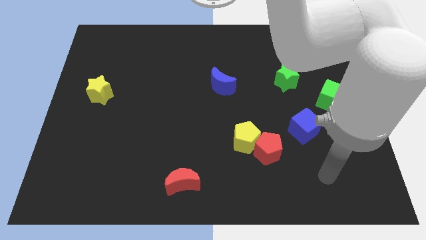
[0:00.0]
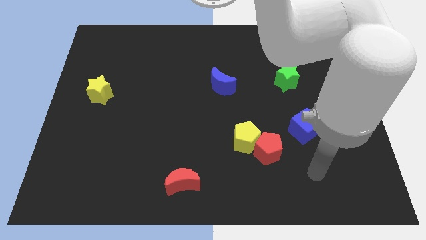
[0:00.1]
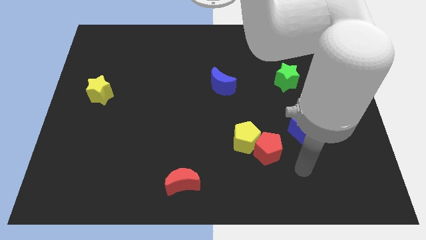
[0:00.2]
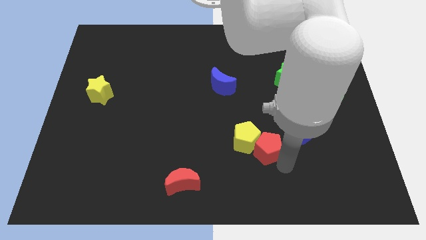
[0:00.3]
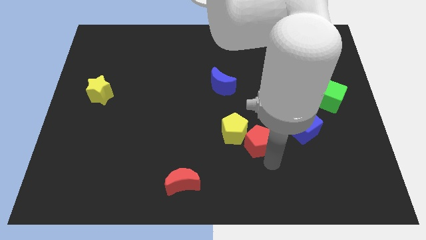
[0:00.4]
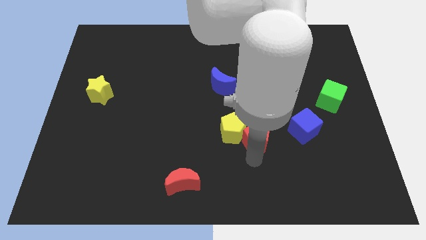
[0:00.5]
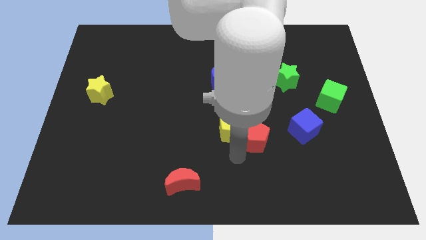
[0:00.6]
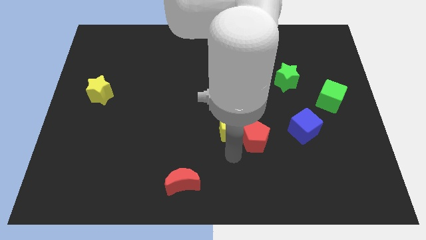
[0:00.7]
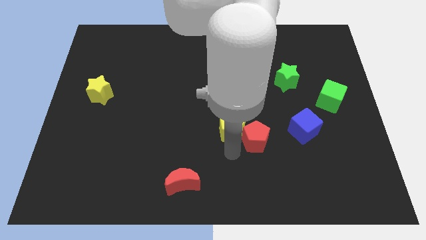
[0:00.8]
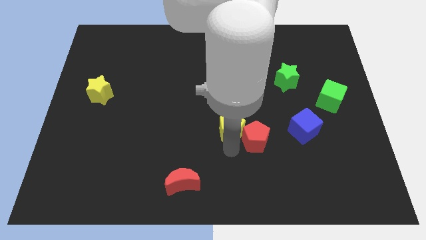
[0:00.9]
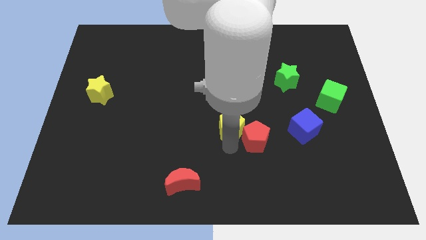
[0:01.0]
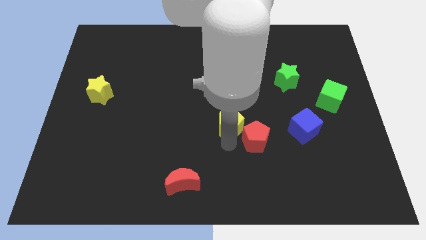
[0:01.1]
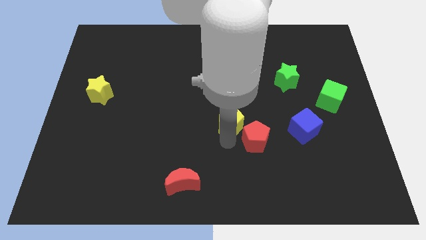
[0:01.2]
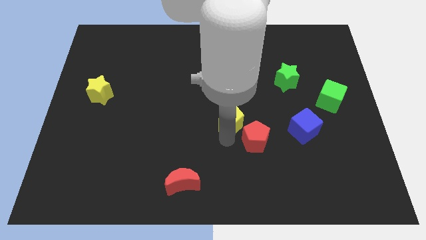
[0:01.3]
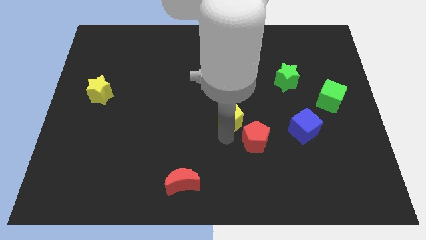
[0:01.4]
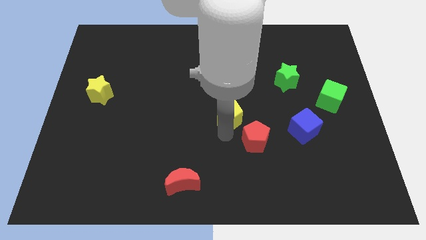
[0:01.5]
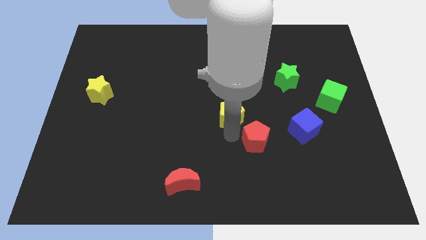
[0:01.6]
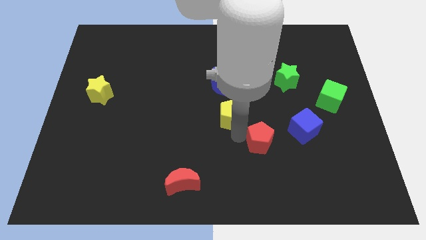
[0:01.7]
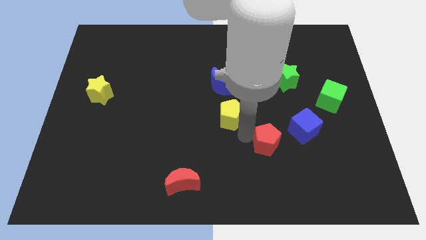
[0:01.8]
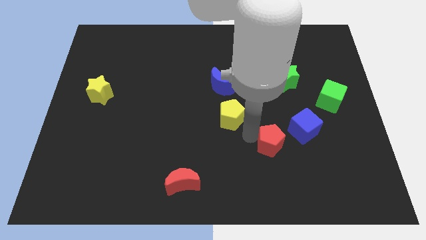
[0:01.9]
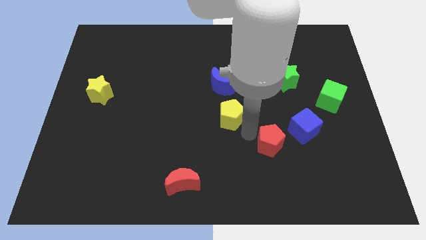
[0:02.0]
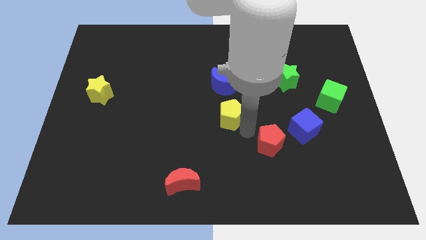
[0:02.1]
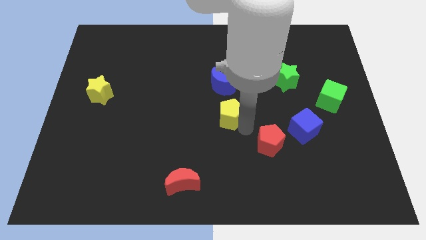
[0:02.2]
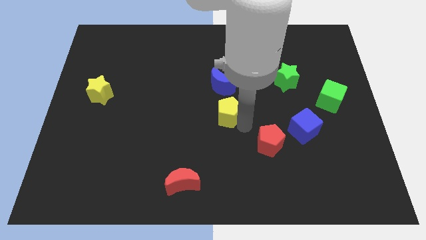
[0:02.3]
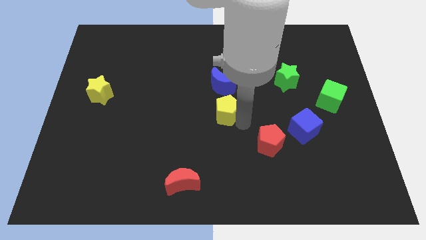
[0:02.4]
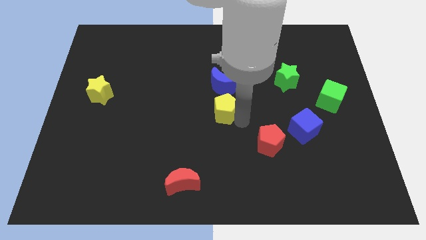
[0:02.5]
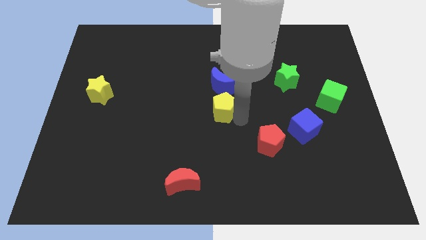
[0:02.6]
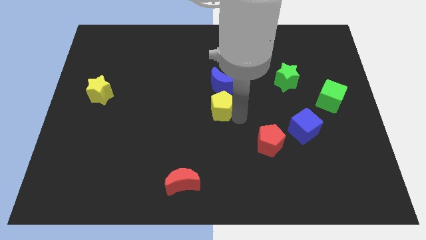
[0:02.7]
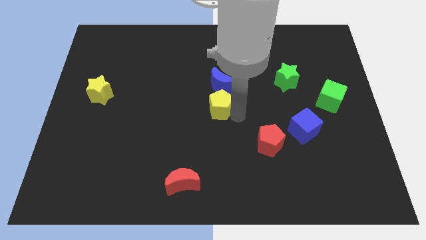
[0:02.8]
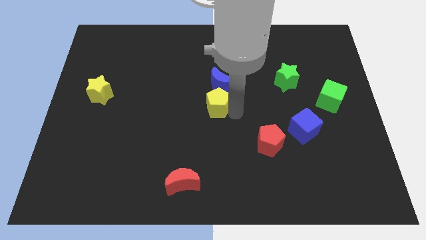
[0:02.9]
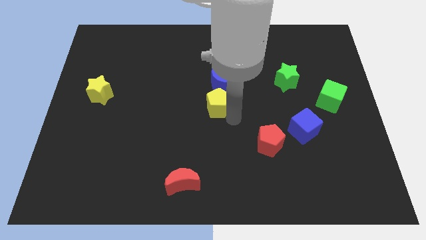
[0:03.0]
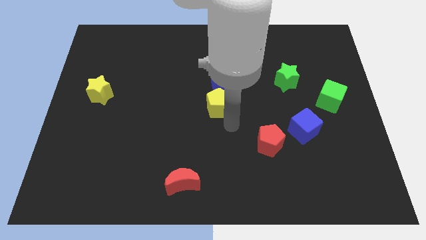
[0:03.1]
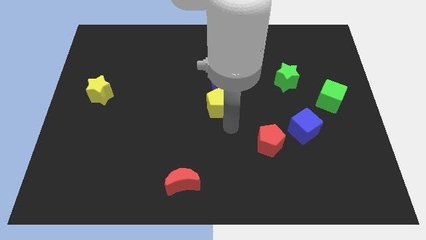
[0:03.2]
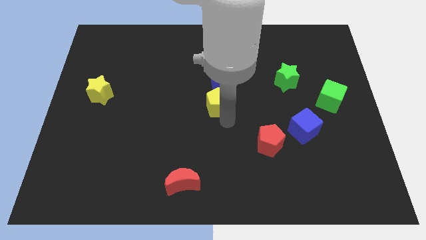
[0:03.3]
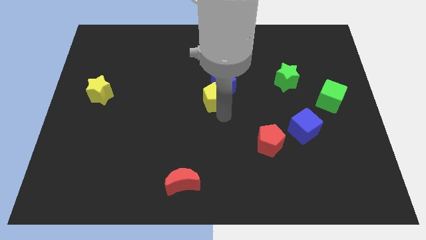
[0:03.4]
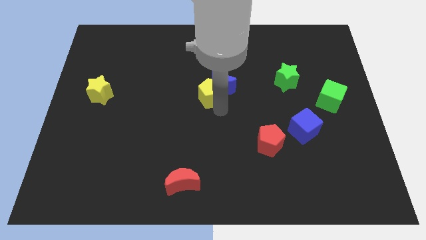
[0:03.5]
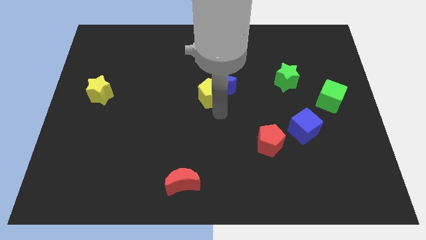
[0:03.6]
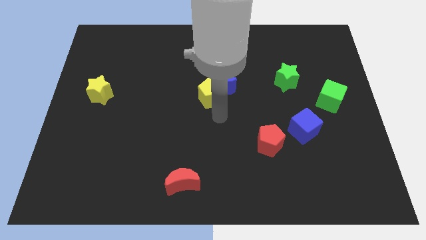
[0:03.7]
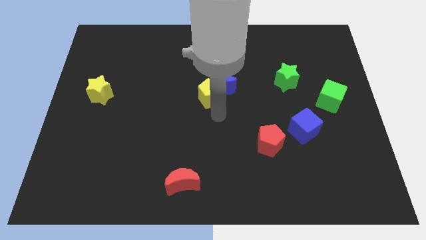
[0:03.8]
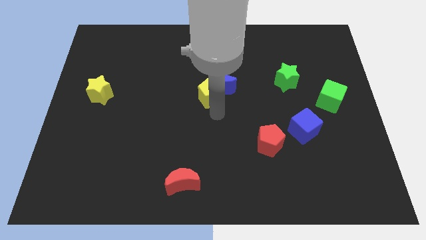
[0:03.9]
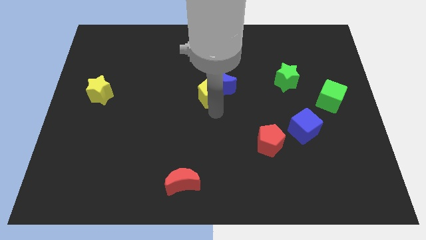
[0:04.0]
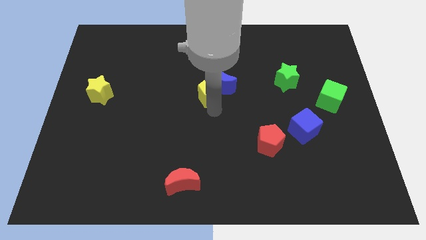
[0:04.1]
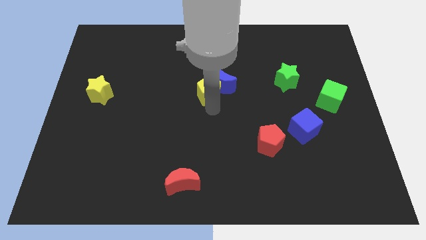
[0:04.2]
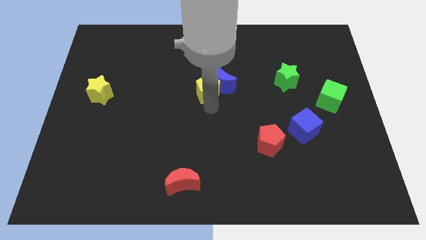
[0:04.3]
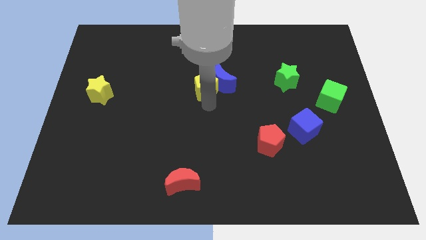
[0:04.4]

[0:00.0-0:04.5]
push the yellow pentagon to the top left of the blue moon

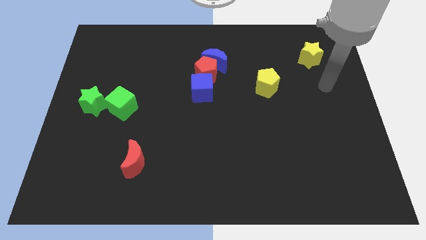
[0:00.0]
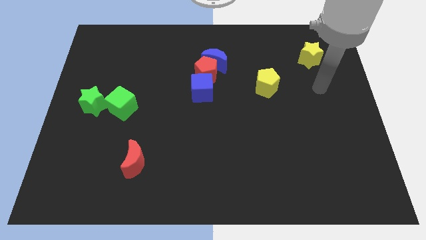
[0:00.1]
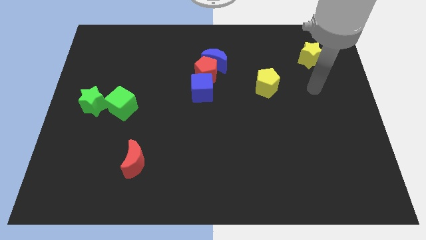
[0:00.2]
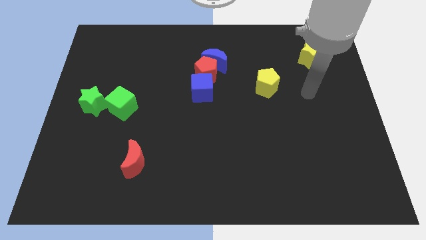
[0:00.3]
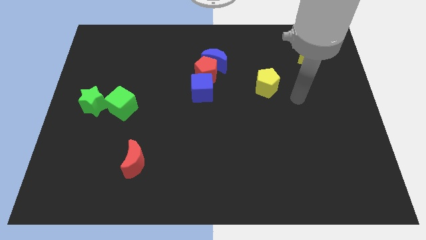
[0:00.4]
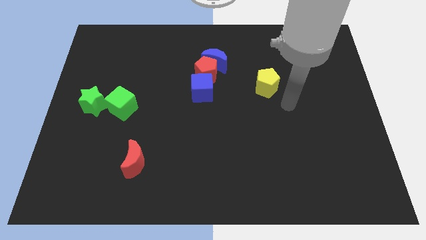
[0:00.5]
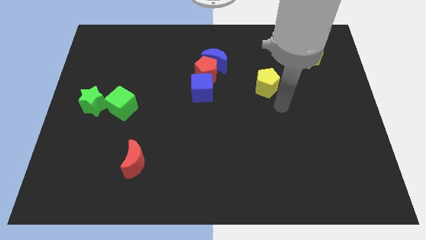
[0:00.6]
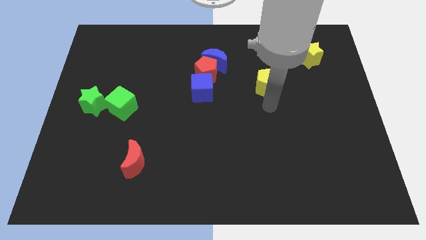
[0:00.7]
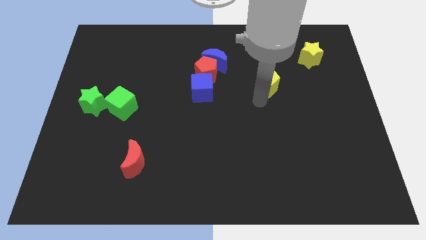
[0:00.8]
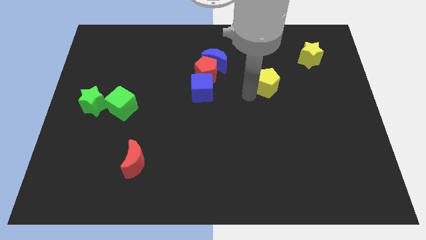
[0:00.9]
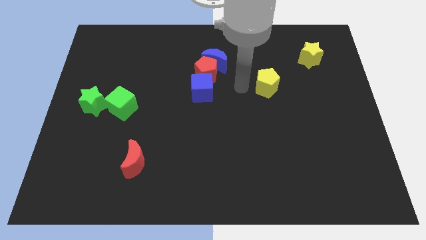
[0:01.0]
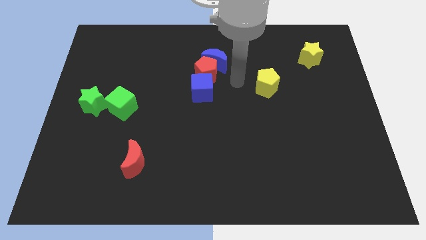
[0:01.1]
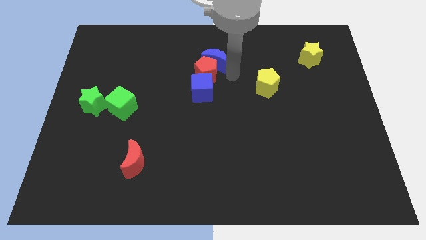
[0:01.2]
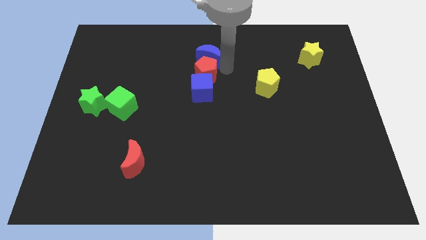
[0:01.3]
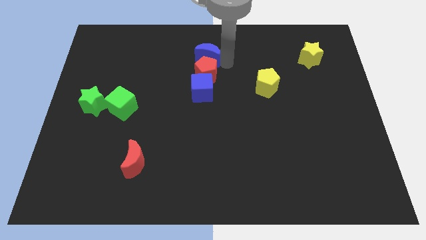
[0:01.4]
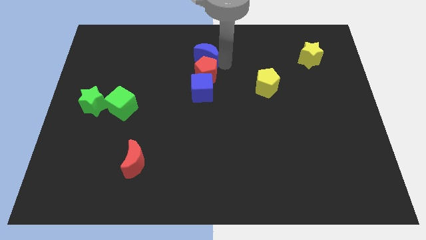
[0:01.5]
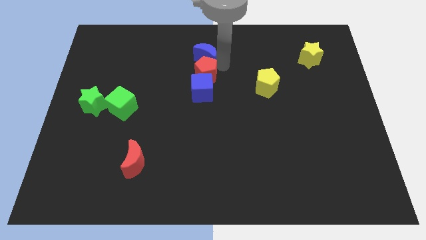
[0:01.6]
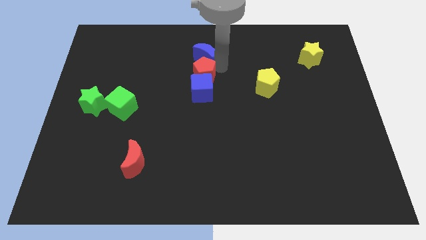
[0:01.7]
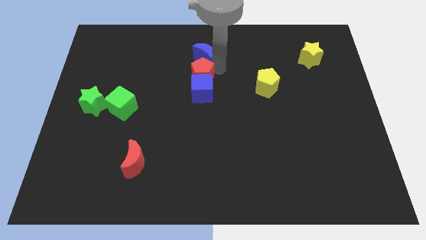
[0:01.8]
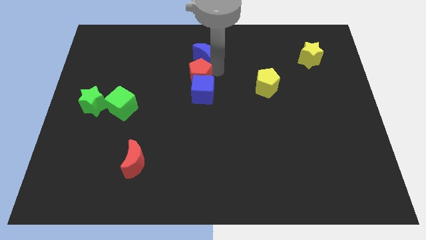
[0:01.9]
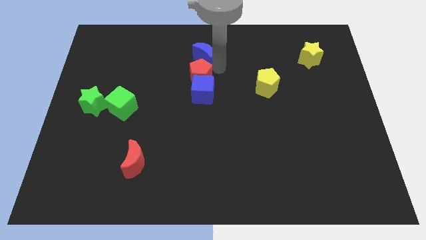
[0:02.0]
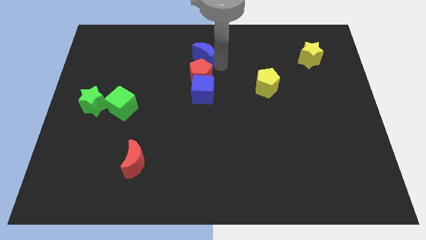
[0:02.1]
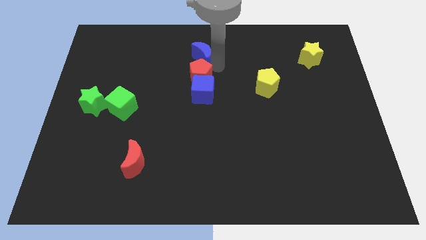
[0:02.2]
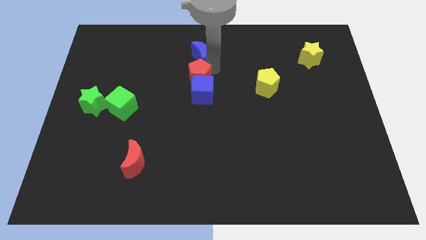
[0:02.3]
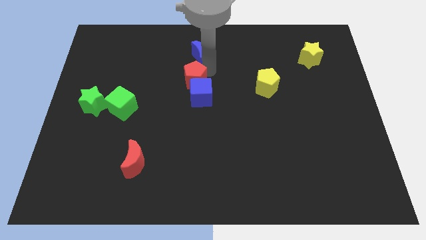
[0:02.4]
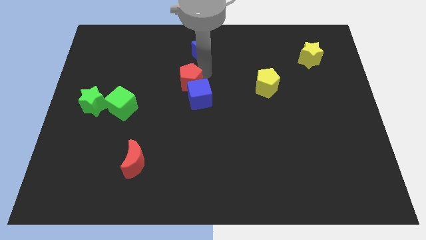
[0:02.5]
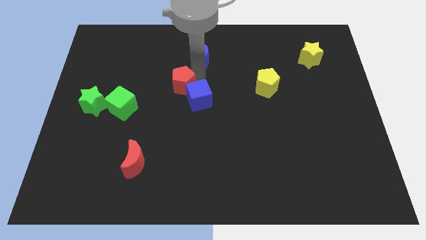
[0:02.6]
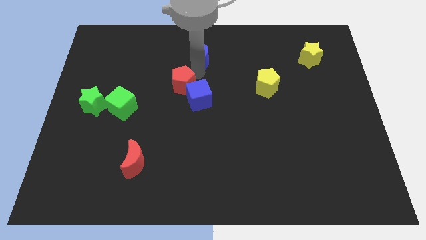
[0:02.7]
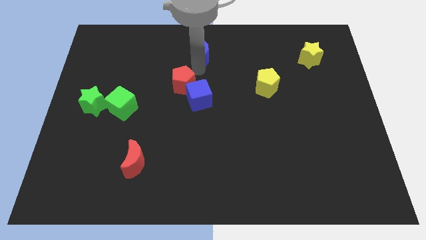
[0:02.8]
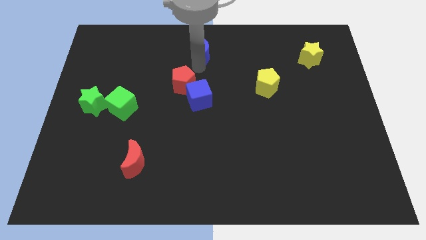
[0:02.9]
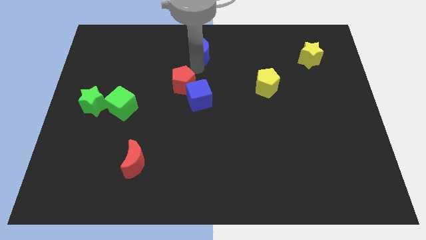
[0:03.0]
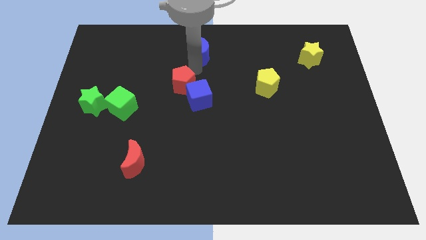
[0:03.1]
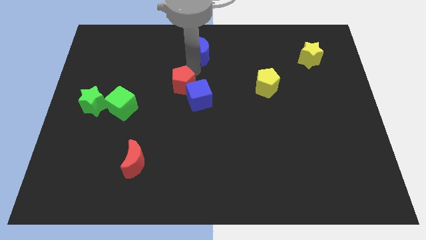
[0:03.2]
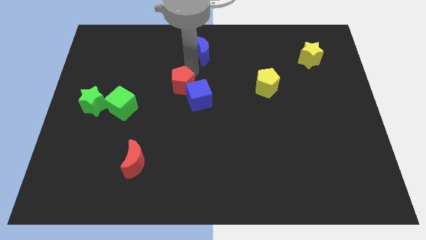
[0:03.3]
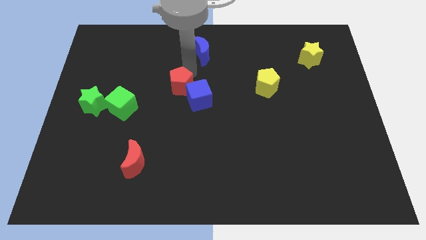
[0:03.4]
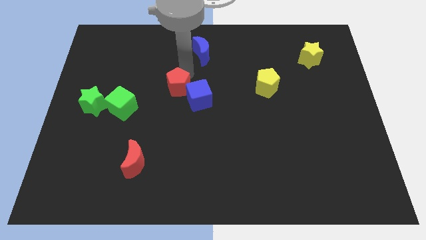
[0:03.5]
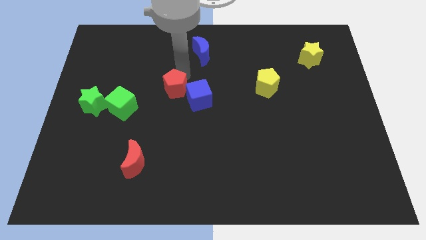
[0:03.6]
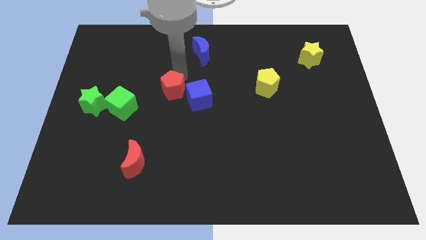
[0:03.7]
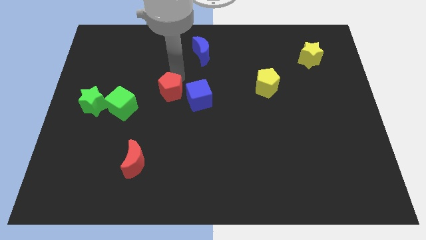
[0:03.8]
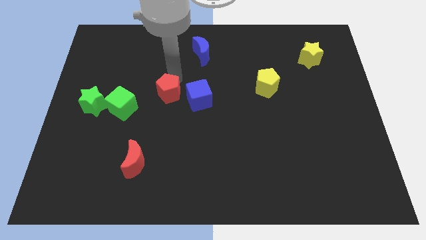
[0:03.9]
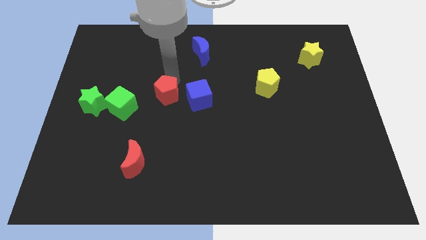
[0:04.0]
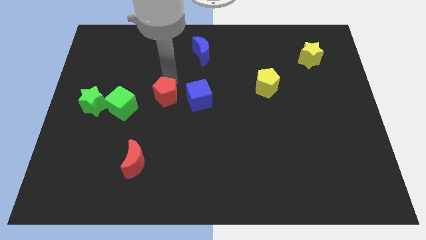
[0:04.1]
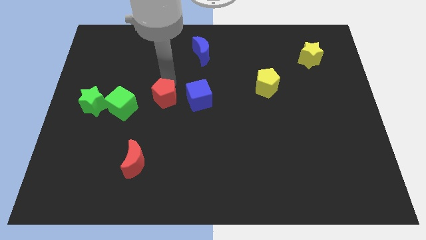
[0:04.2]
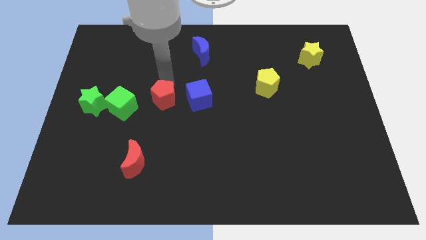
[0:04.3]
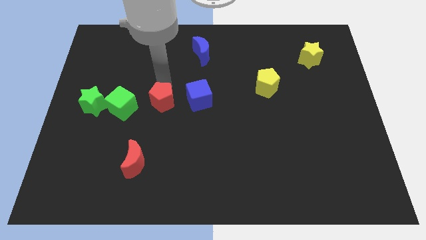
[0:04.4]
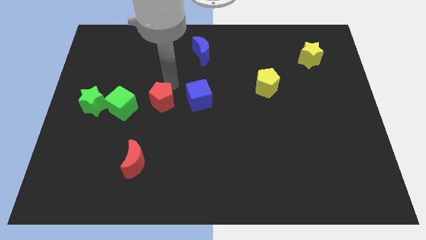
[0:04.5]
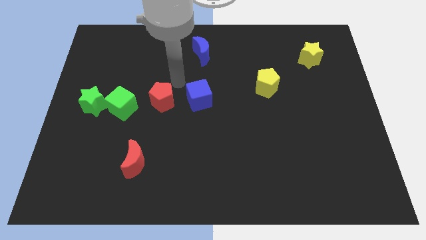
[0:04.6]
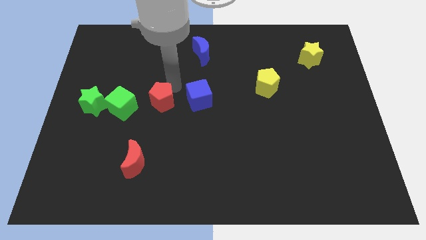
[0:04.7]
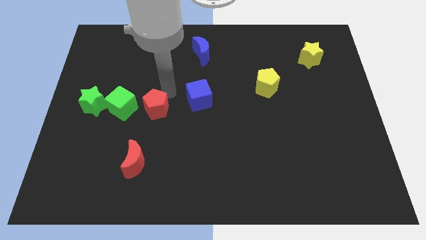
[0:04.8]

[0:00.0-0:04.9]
move the red pentagon above the red moon
